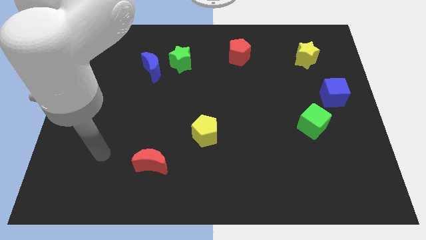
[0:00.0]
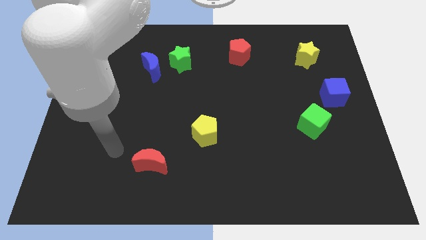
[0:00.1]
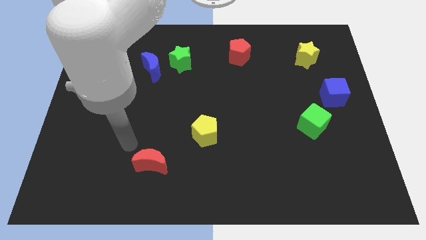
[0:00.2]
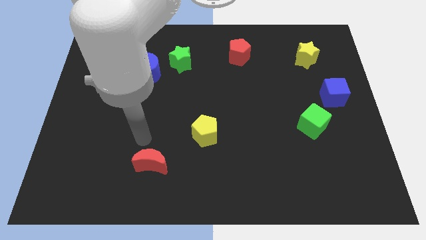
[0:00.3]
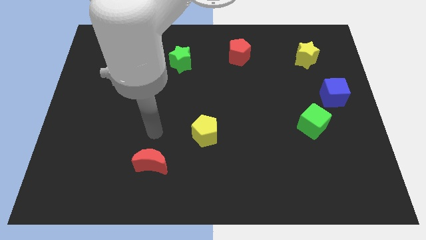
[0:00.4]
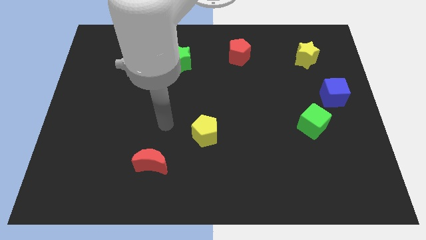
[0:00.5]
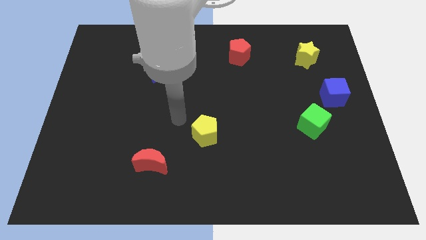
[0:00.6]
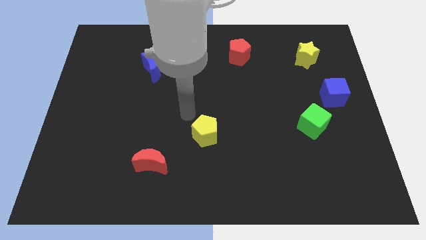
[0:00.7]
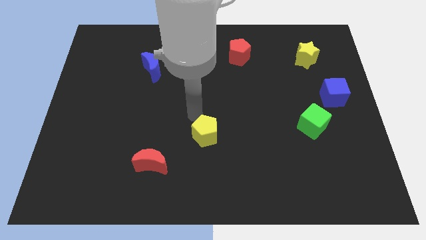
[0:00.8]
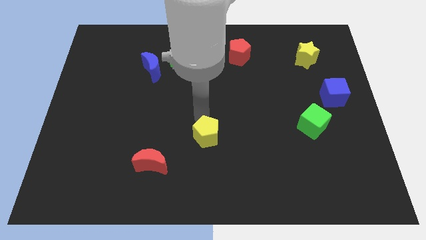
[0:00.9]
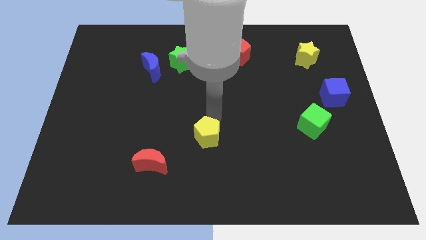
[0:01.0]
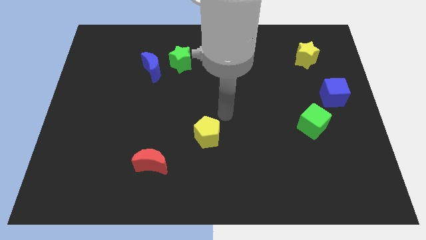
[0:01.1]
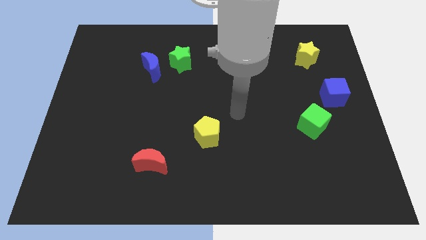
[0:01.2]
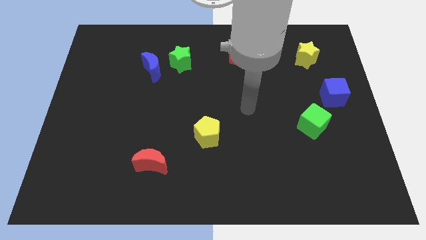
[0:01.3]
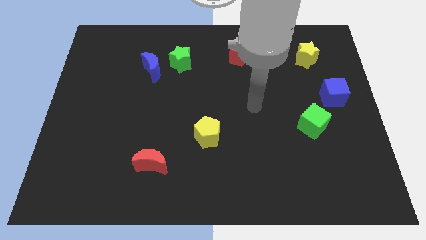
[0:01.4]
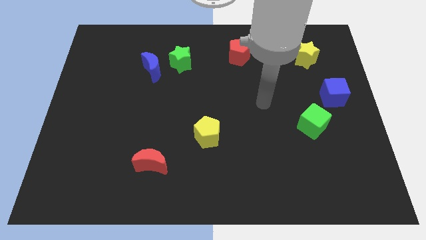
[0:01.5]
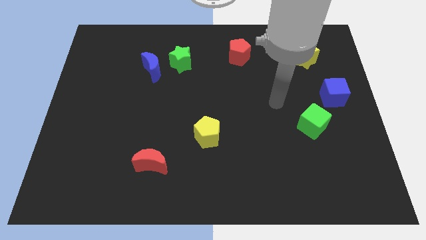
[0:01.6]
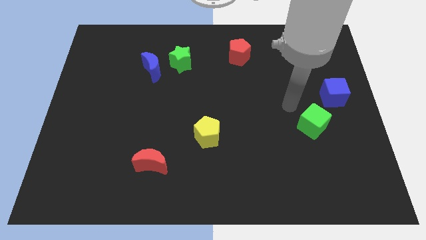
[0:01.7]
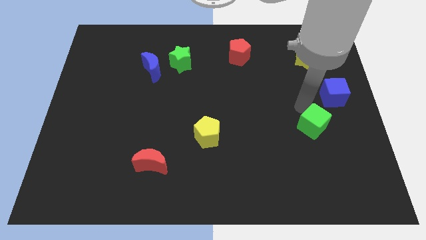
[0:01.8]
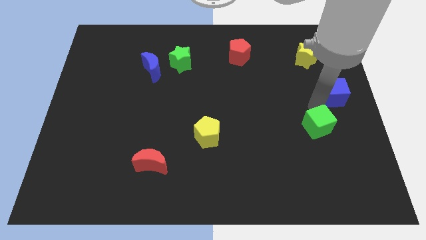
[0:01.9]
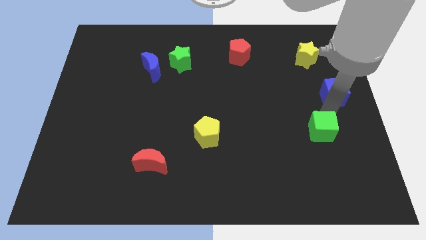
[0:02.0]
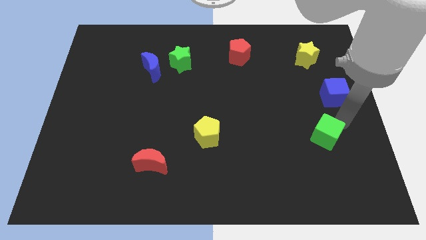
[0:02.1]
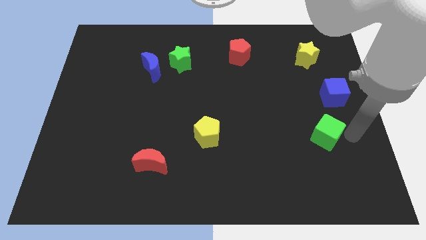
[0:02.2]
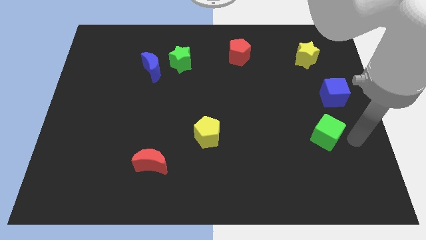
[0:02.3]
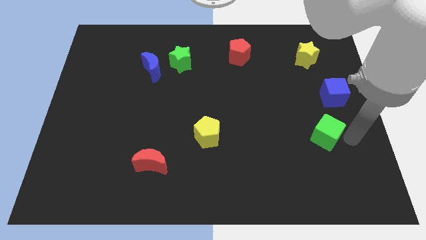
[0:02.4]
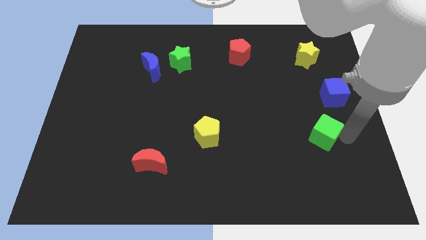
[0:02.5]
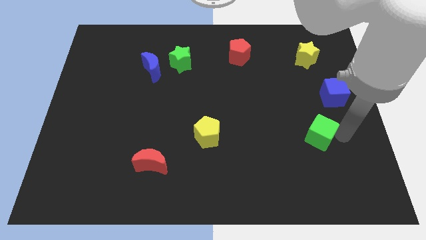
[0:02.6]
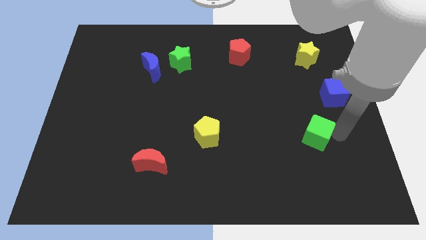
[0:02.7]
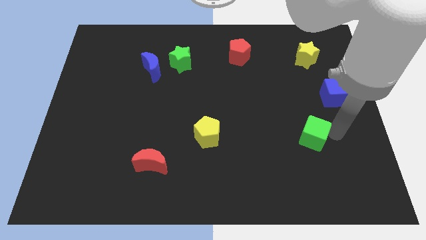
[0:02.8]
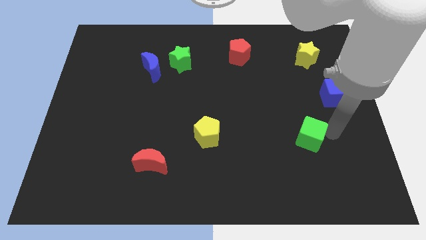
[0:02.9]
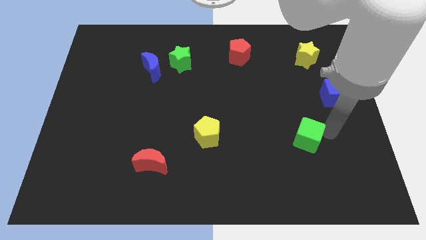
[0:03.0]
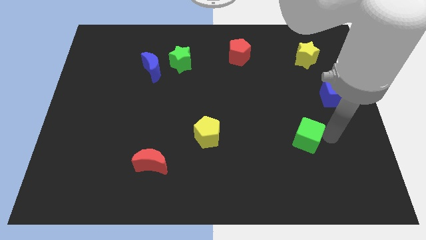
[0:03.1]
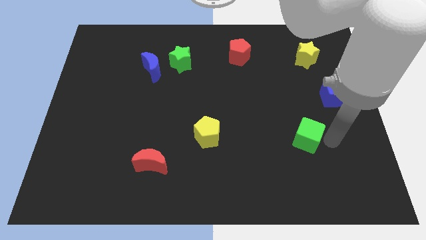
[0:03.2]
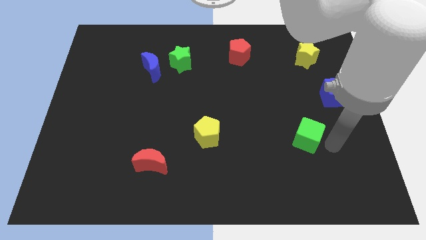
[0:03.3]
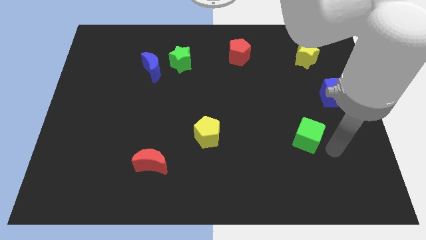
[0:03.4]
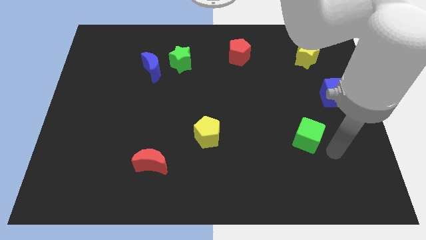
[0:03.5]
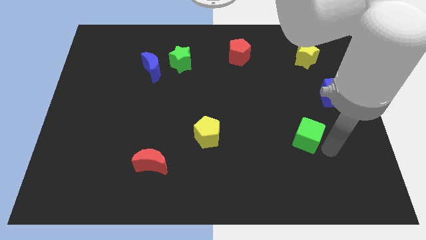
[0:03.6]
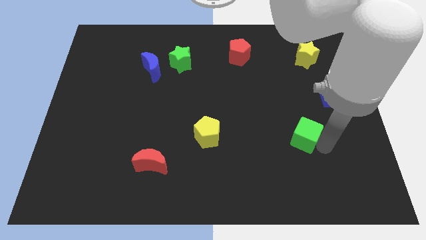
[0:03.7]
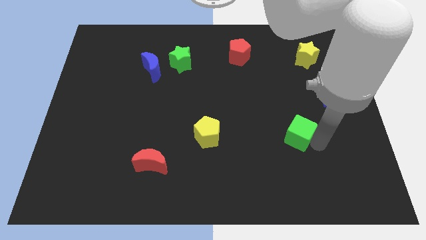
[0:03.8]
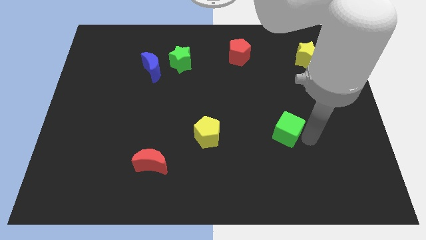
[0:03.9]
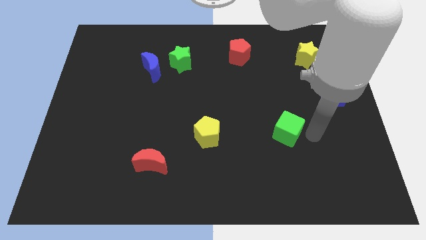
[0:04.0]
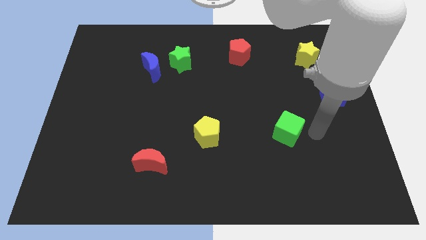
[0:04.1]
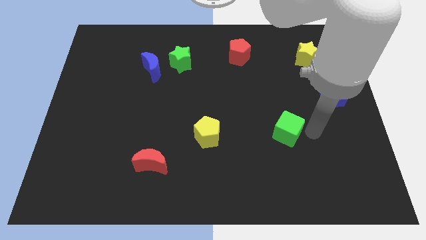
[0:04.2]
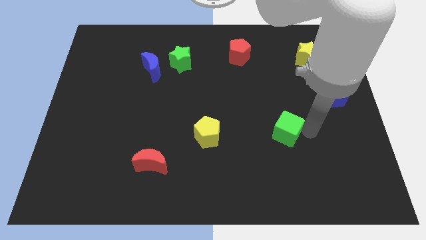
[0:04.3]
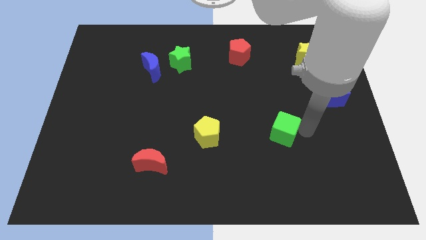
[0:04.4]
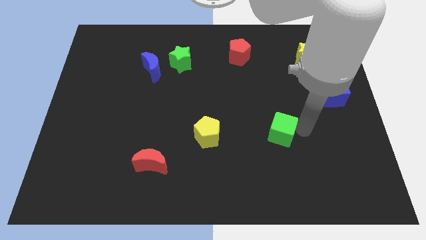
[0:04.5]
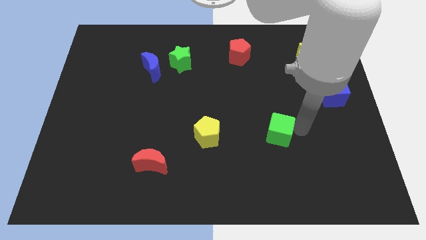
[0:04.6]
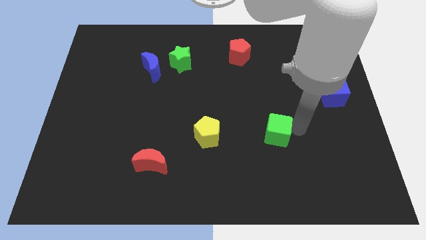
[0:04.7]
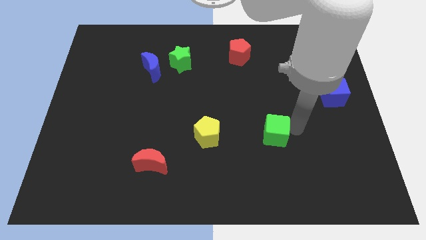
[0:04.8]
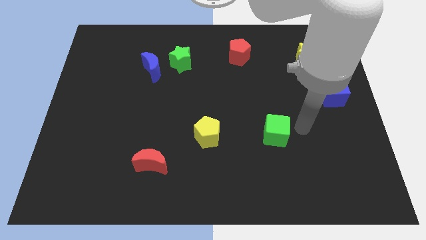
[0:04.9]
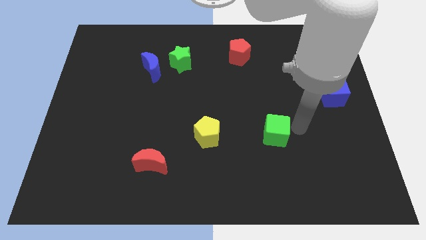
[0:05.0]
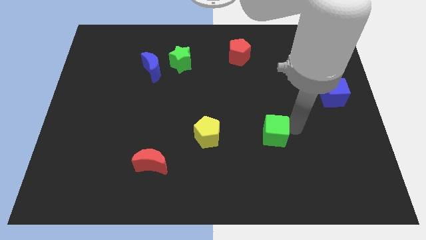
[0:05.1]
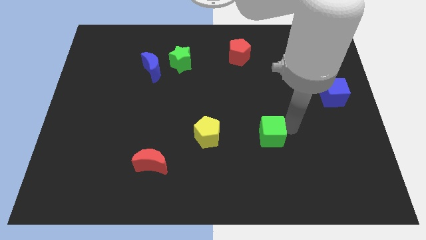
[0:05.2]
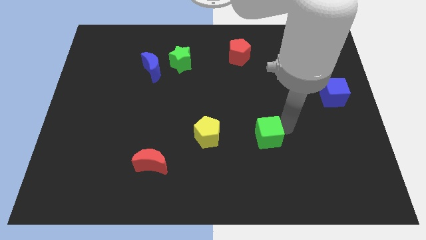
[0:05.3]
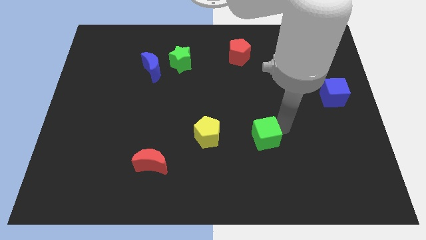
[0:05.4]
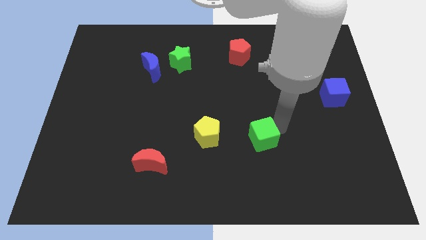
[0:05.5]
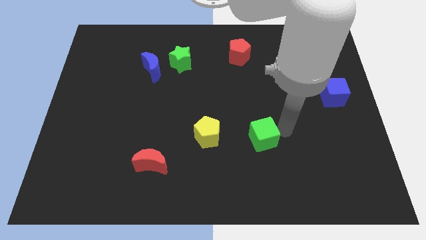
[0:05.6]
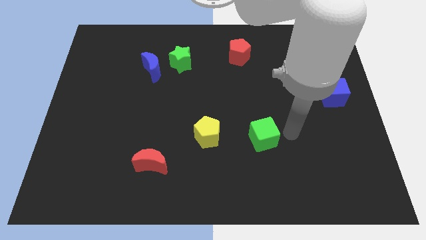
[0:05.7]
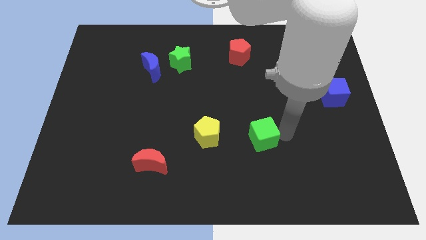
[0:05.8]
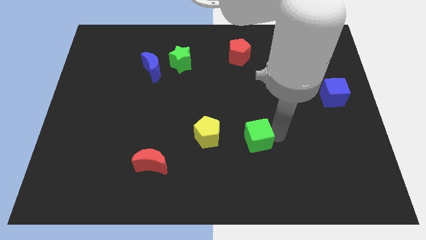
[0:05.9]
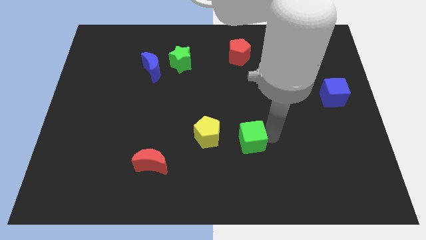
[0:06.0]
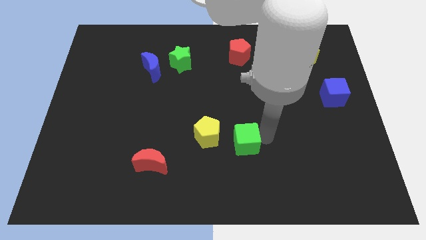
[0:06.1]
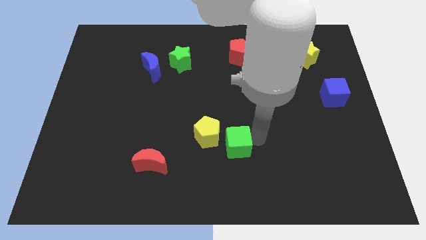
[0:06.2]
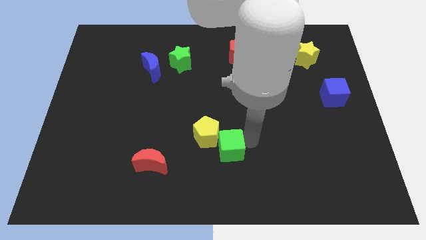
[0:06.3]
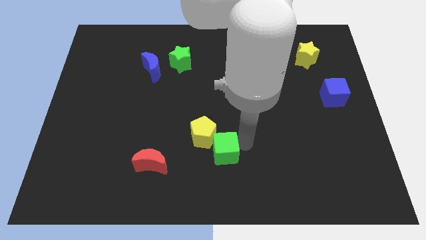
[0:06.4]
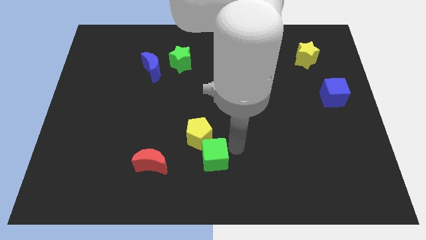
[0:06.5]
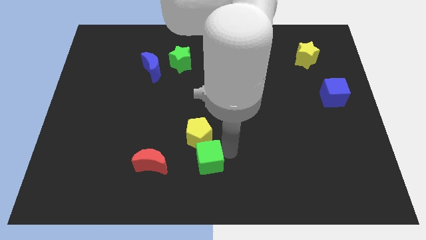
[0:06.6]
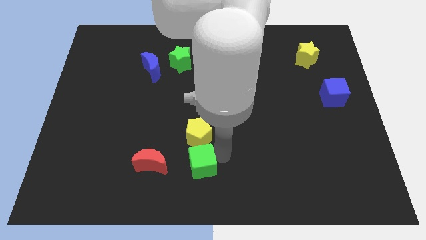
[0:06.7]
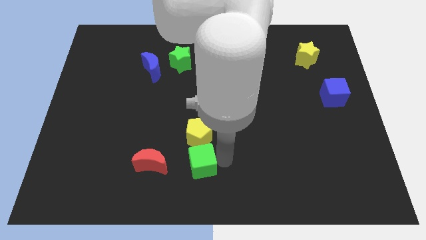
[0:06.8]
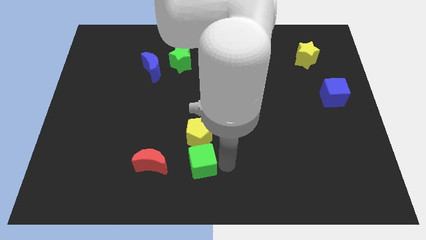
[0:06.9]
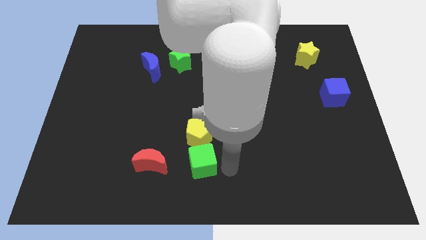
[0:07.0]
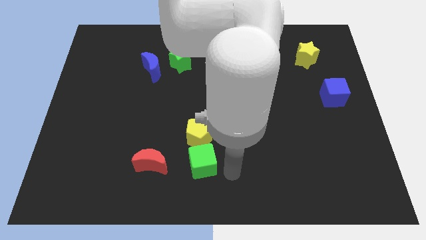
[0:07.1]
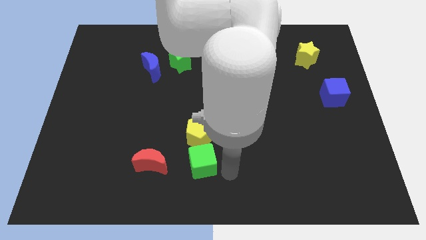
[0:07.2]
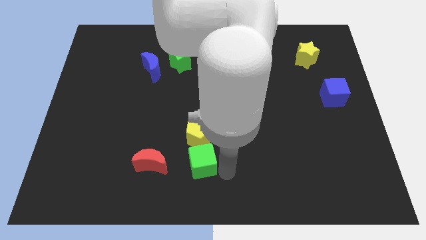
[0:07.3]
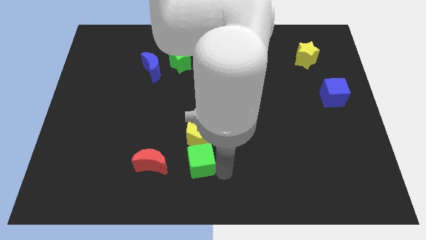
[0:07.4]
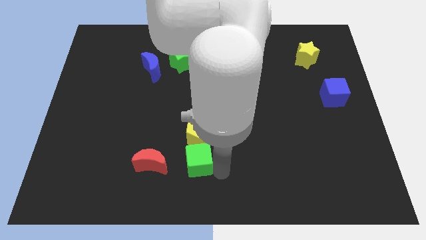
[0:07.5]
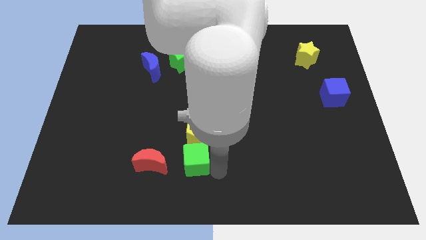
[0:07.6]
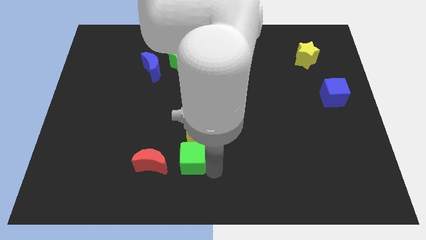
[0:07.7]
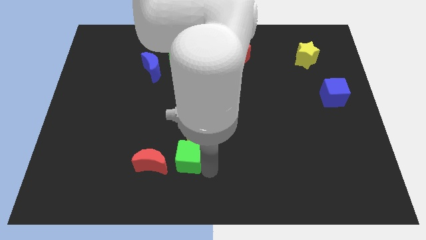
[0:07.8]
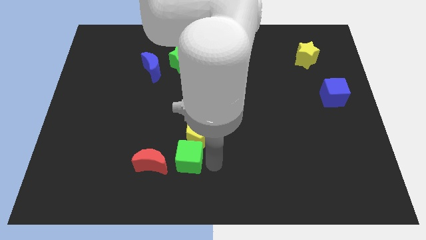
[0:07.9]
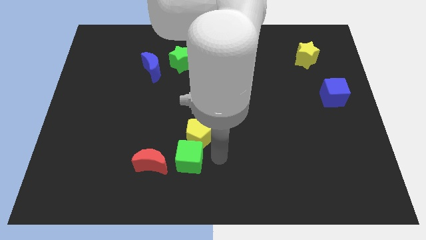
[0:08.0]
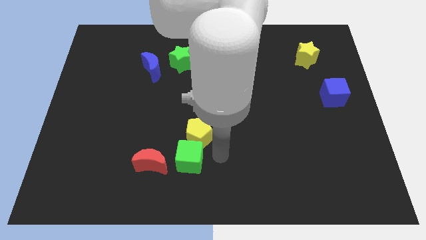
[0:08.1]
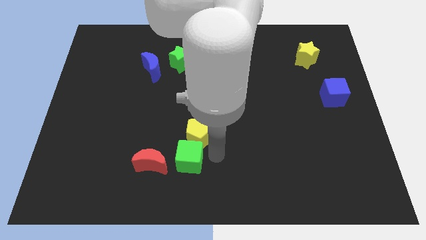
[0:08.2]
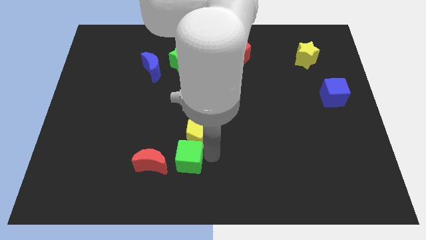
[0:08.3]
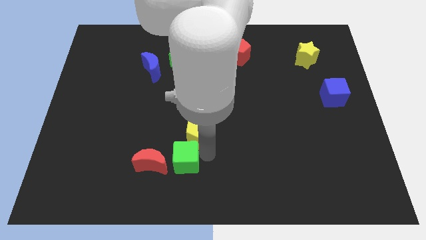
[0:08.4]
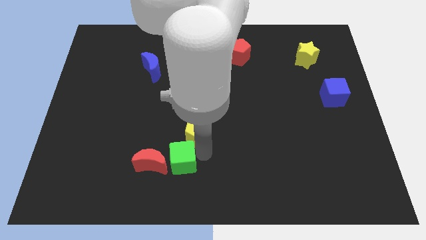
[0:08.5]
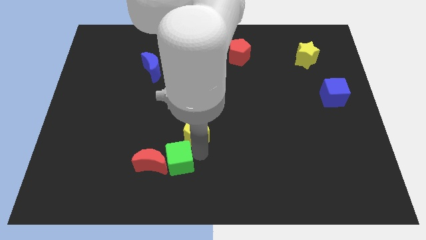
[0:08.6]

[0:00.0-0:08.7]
move the green cube close to the red moon
